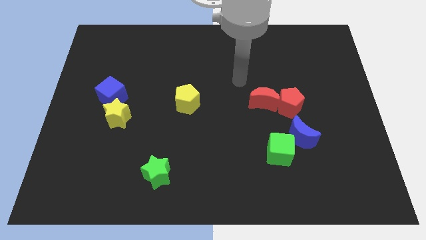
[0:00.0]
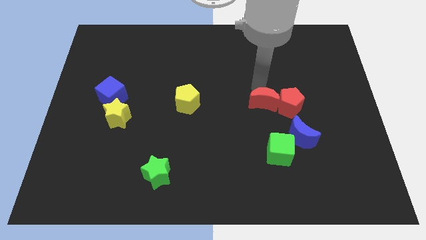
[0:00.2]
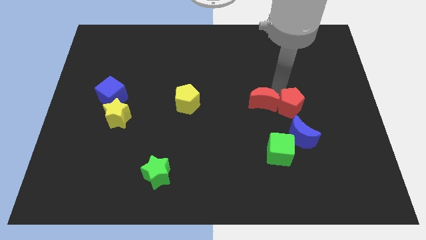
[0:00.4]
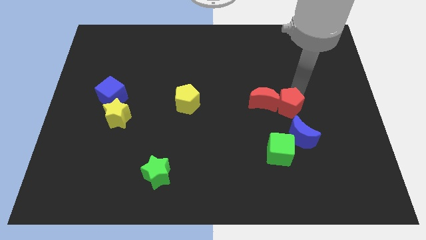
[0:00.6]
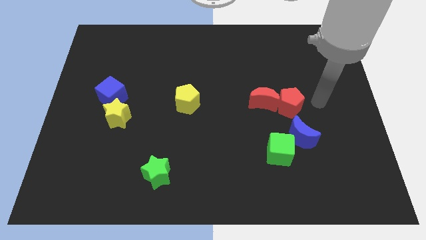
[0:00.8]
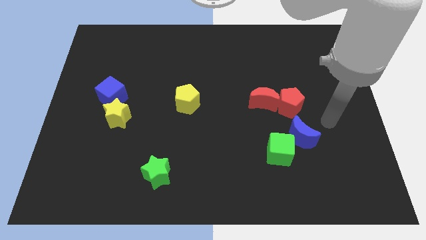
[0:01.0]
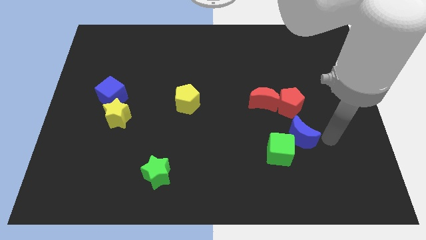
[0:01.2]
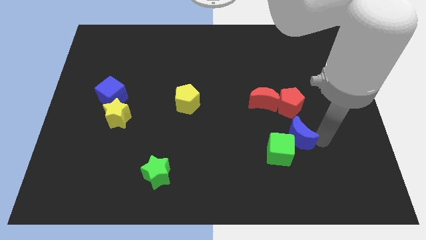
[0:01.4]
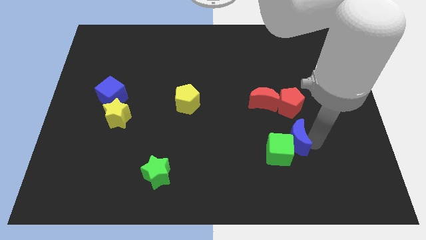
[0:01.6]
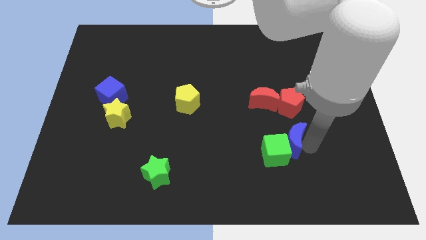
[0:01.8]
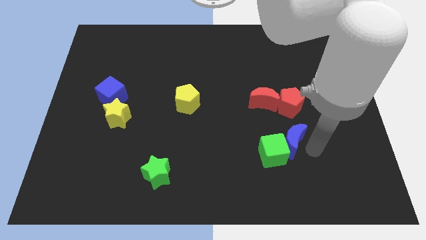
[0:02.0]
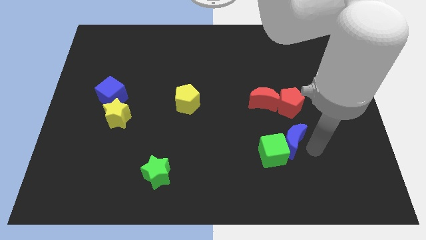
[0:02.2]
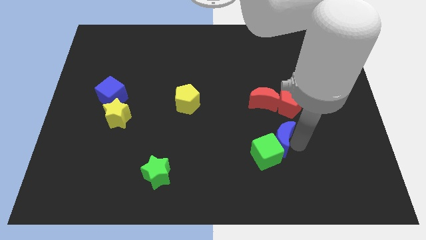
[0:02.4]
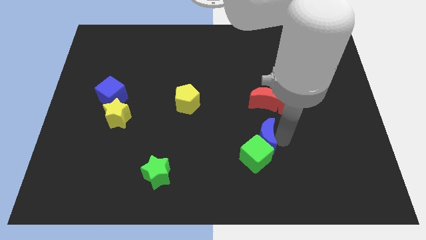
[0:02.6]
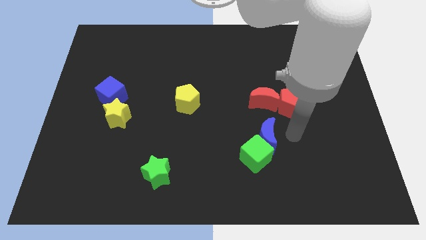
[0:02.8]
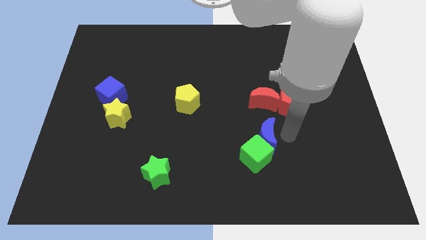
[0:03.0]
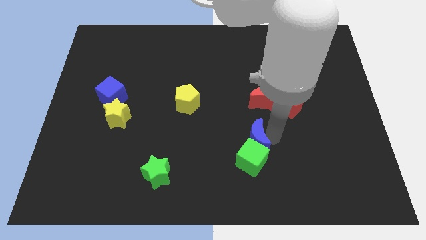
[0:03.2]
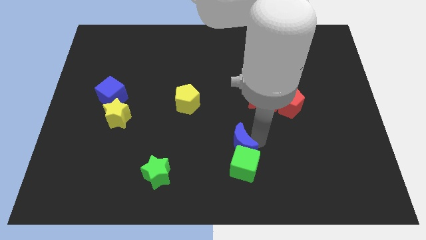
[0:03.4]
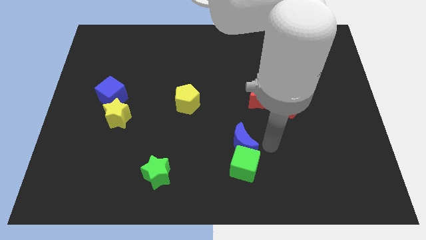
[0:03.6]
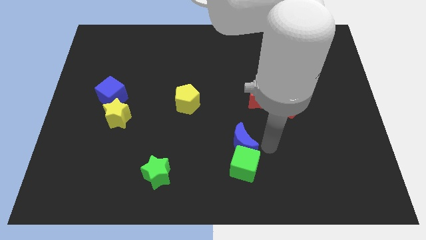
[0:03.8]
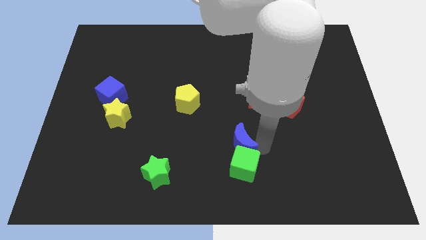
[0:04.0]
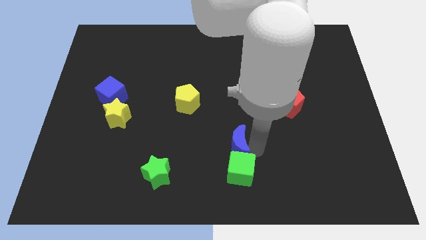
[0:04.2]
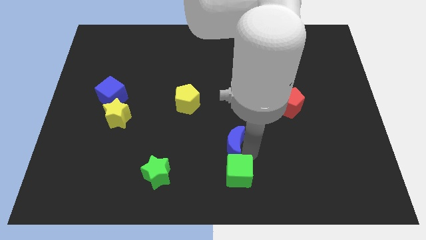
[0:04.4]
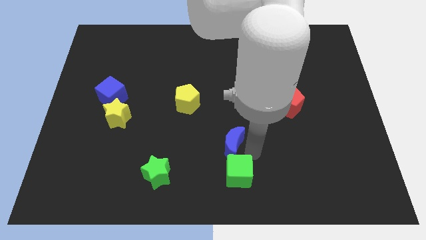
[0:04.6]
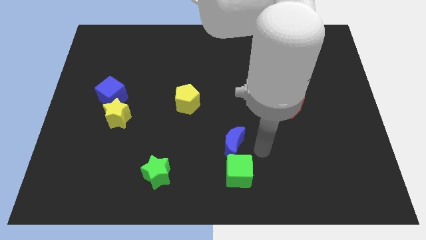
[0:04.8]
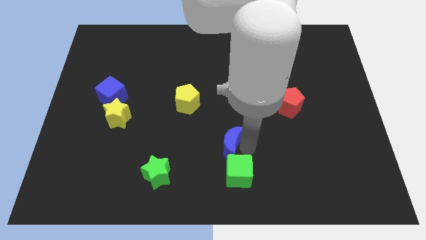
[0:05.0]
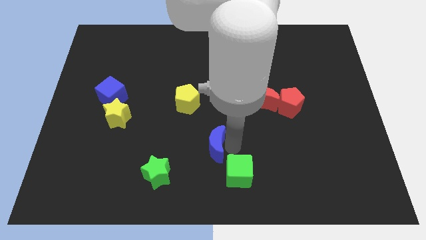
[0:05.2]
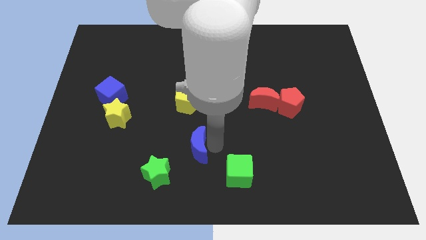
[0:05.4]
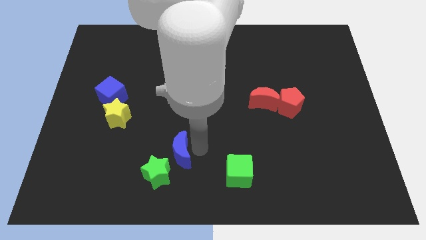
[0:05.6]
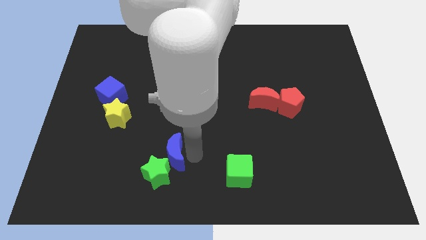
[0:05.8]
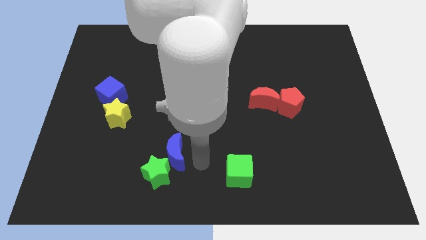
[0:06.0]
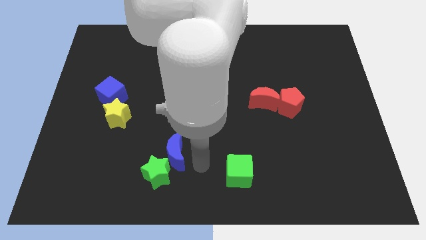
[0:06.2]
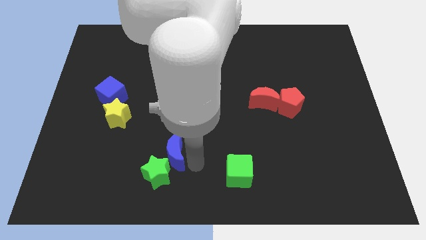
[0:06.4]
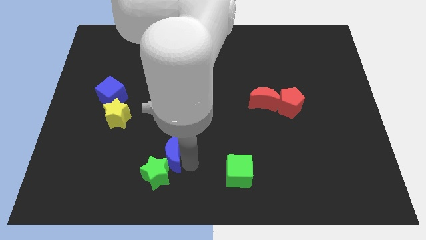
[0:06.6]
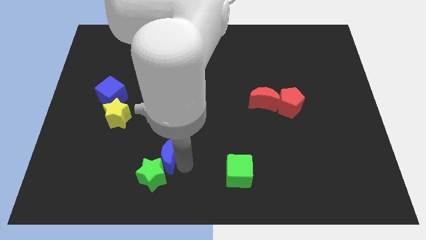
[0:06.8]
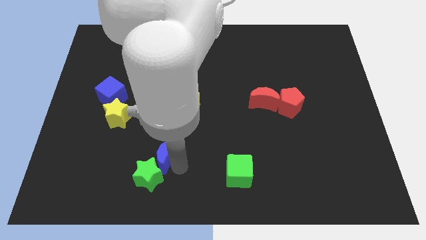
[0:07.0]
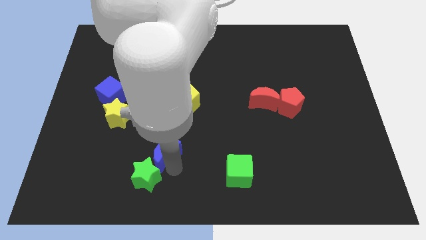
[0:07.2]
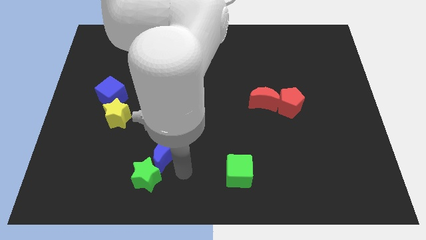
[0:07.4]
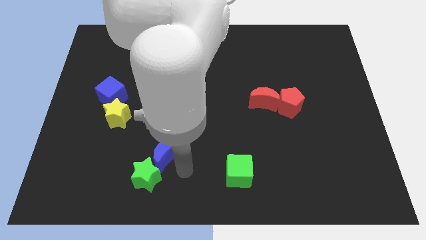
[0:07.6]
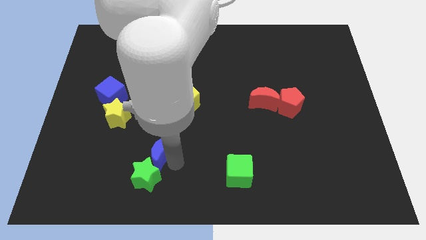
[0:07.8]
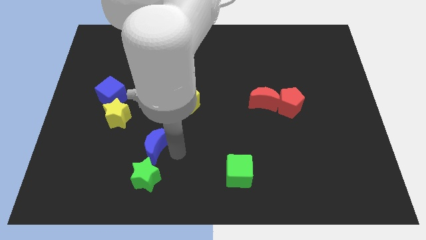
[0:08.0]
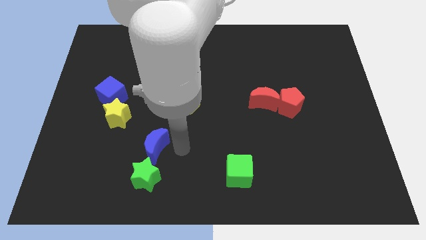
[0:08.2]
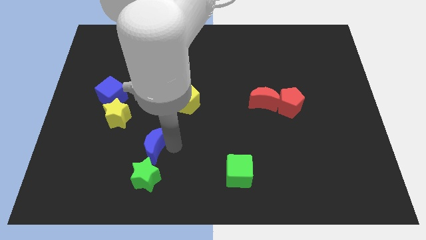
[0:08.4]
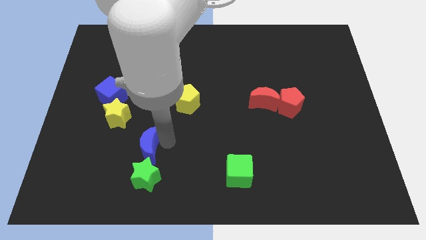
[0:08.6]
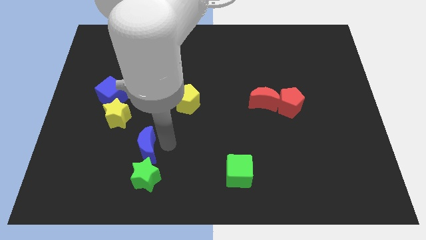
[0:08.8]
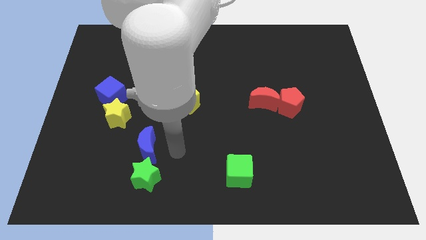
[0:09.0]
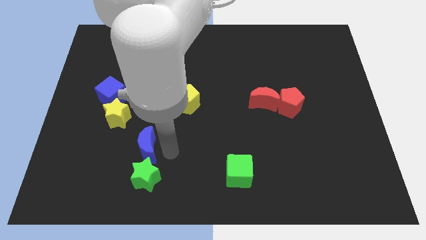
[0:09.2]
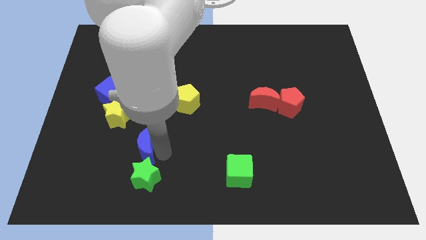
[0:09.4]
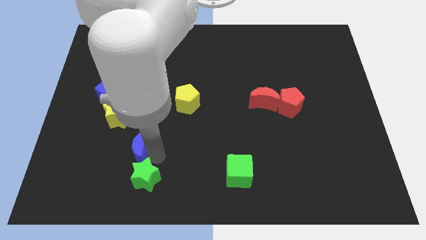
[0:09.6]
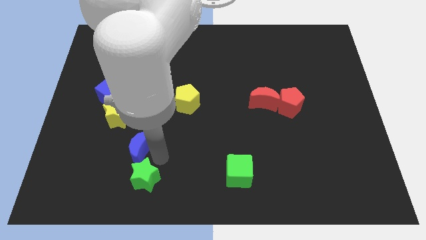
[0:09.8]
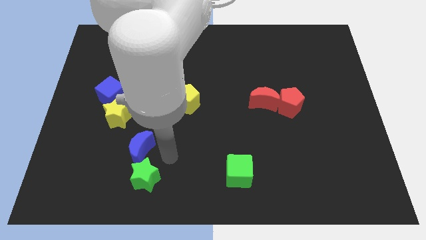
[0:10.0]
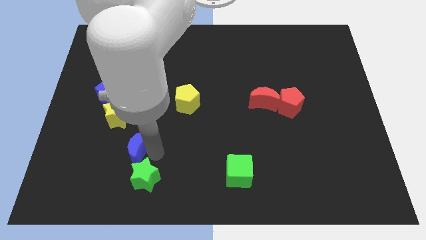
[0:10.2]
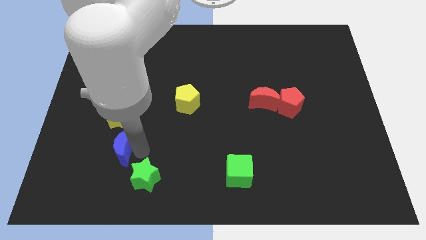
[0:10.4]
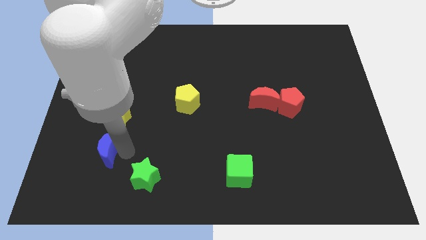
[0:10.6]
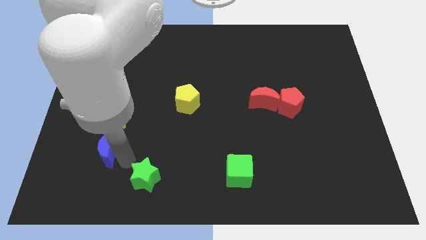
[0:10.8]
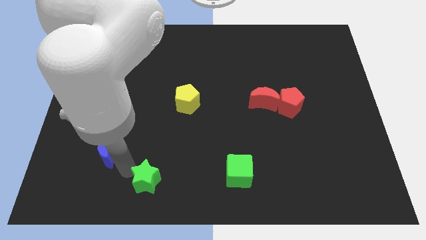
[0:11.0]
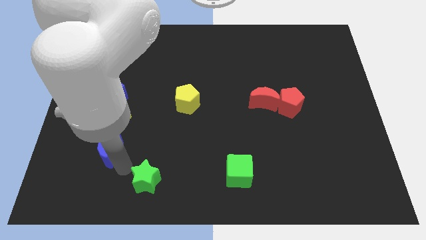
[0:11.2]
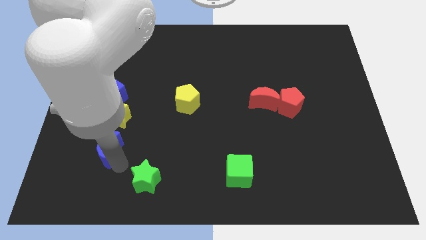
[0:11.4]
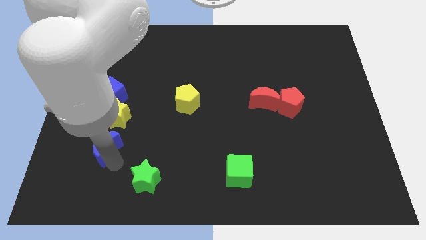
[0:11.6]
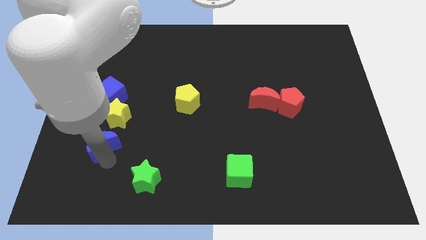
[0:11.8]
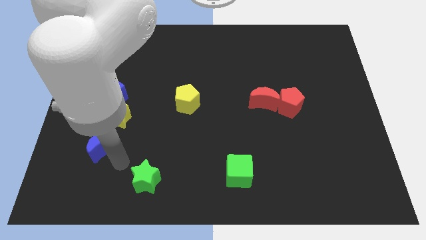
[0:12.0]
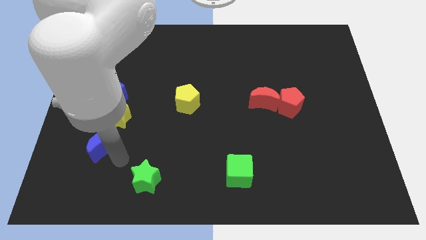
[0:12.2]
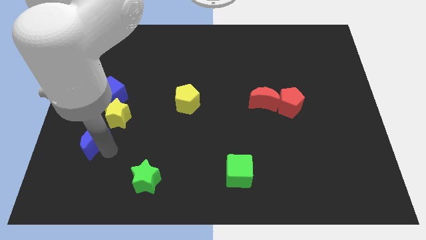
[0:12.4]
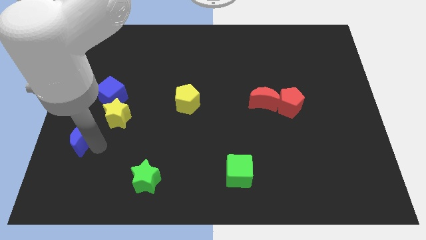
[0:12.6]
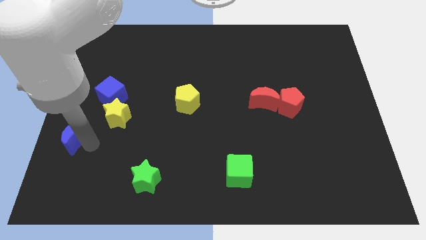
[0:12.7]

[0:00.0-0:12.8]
move the blue moon to the left side
